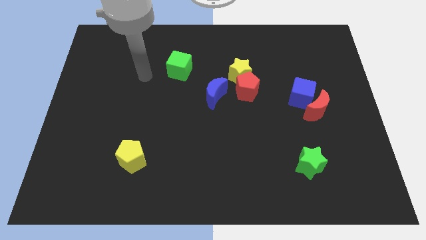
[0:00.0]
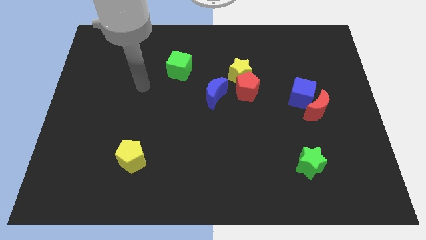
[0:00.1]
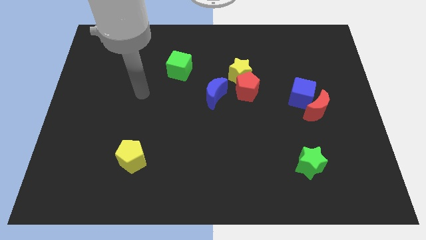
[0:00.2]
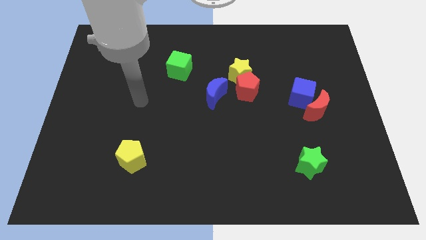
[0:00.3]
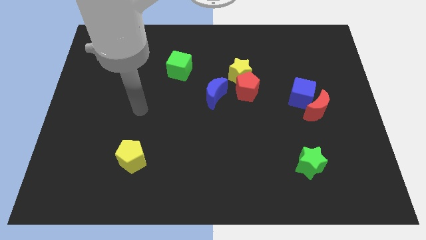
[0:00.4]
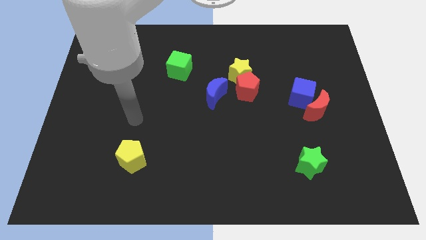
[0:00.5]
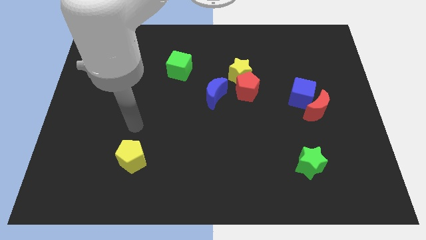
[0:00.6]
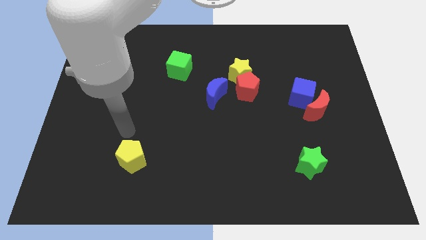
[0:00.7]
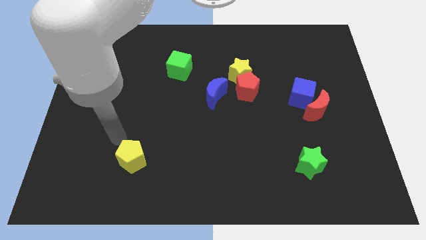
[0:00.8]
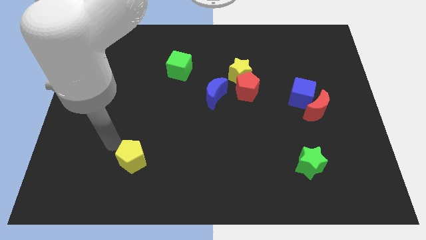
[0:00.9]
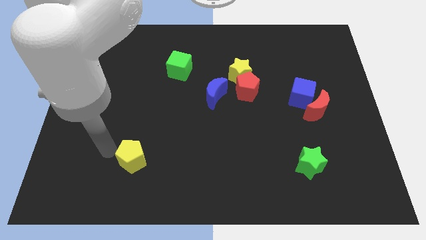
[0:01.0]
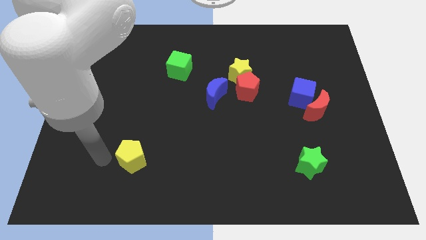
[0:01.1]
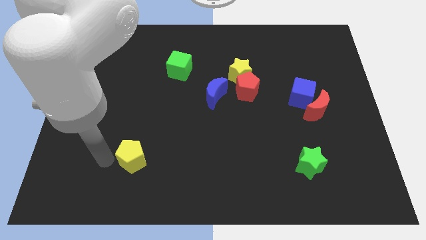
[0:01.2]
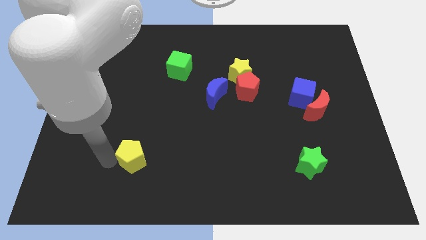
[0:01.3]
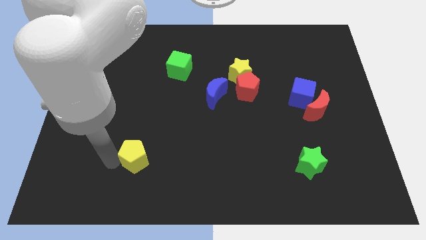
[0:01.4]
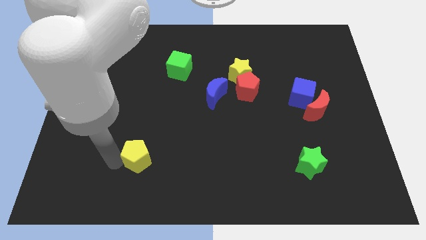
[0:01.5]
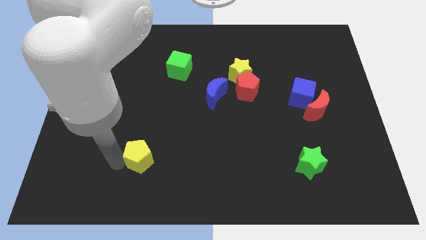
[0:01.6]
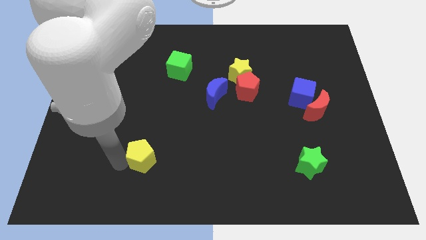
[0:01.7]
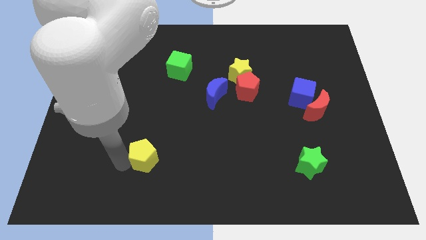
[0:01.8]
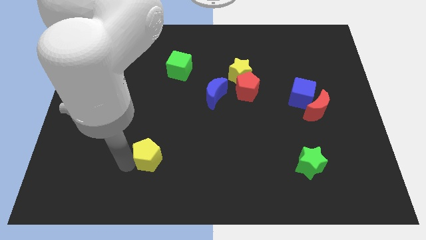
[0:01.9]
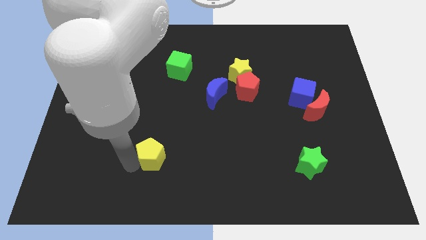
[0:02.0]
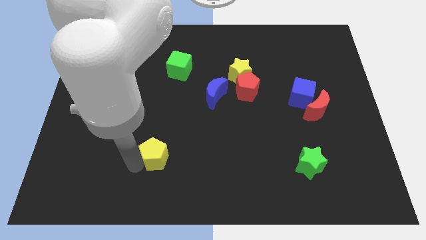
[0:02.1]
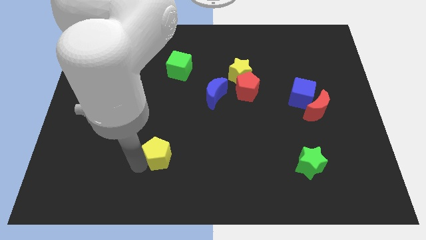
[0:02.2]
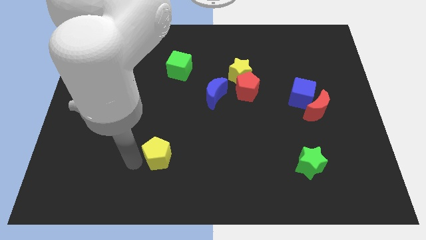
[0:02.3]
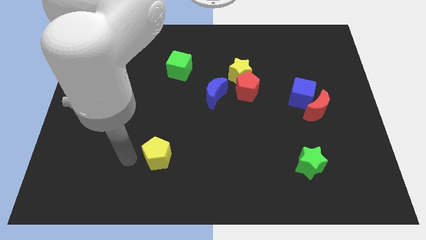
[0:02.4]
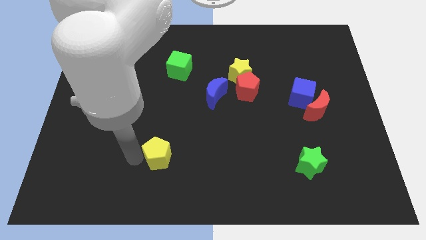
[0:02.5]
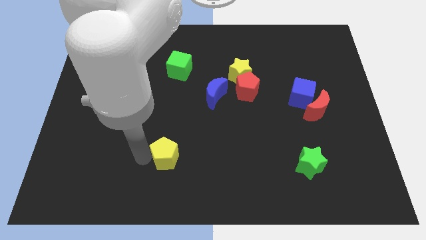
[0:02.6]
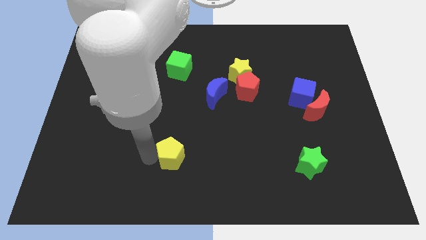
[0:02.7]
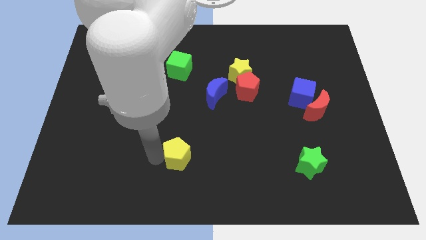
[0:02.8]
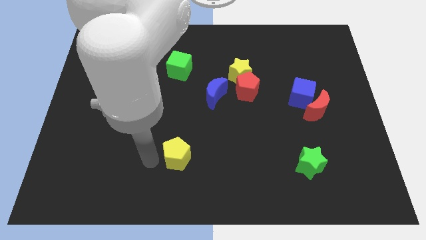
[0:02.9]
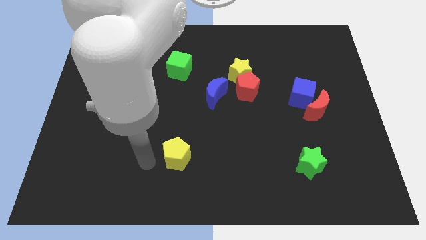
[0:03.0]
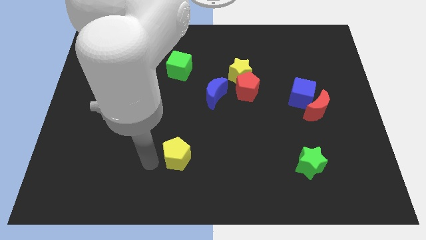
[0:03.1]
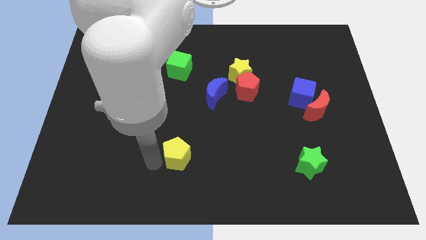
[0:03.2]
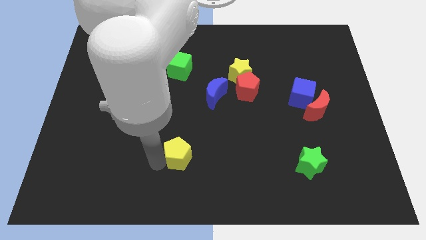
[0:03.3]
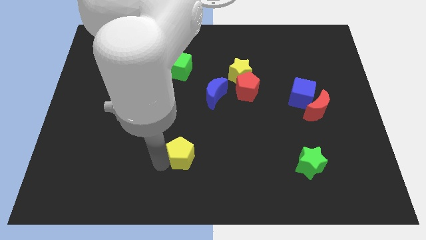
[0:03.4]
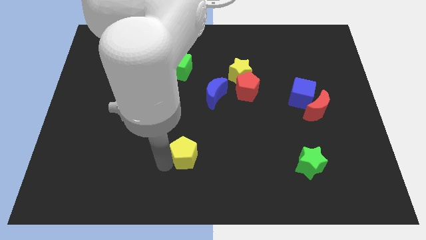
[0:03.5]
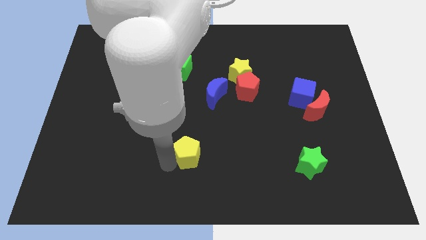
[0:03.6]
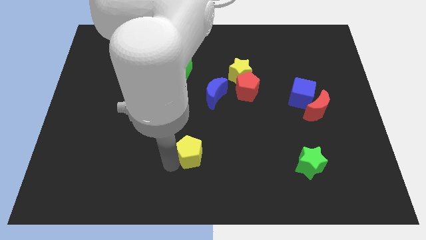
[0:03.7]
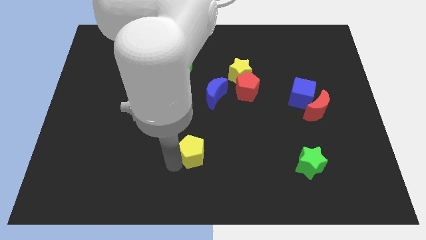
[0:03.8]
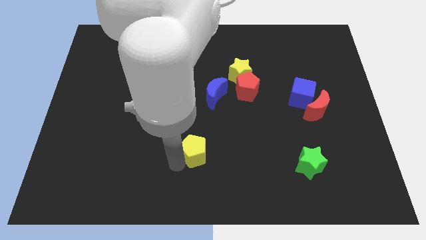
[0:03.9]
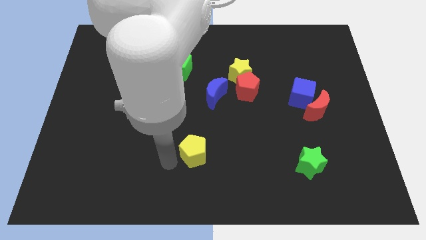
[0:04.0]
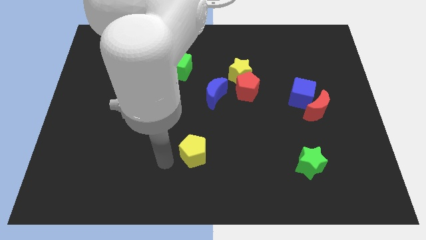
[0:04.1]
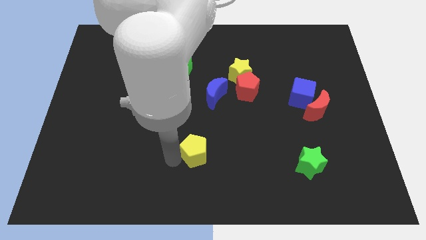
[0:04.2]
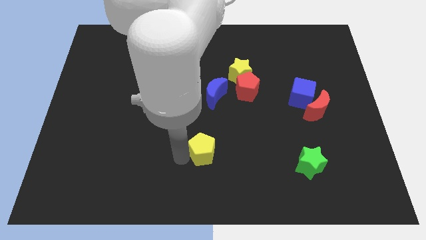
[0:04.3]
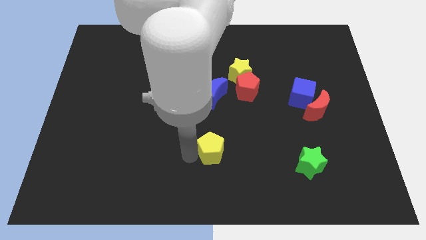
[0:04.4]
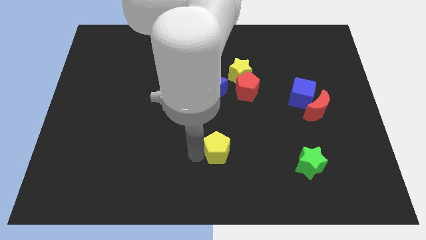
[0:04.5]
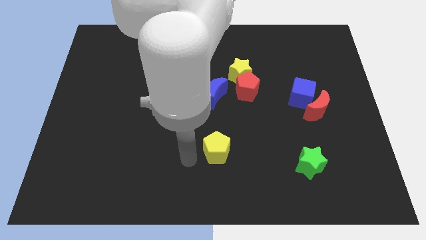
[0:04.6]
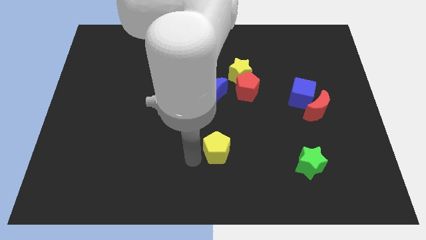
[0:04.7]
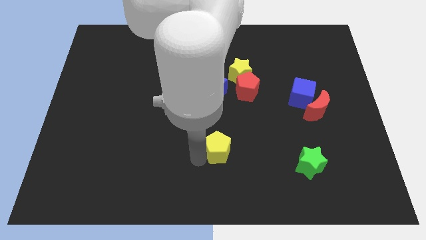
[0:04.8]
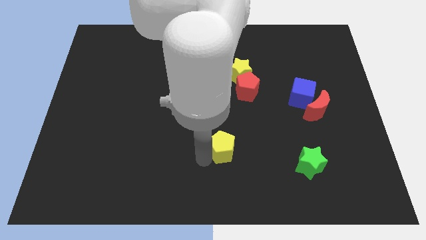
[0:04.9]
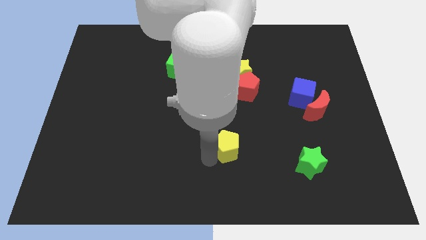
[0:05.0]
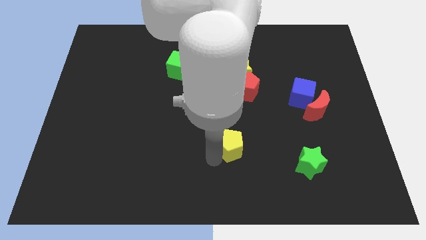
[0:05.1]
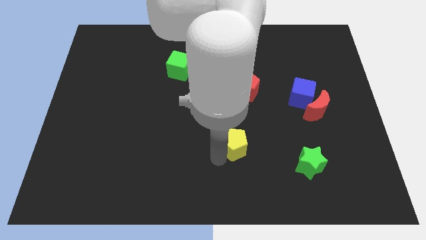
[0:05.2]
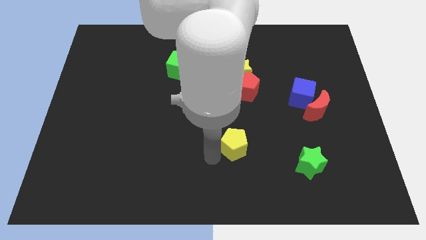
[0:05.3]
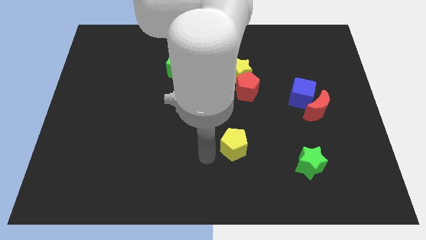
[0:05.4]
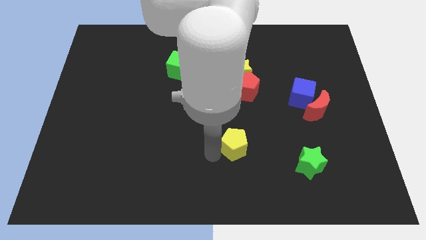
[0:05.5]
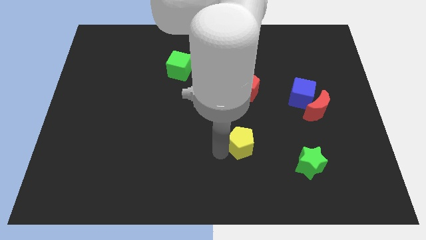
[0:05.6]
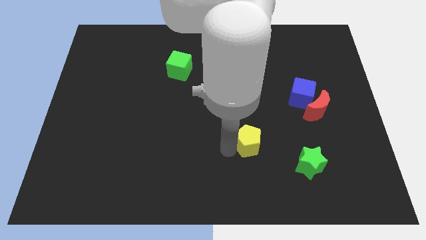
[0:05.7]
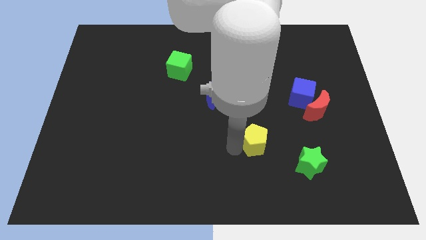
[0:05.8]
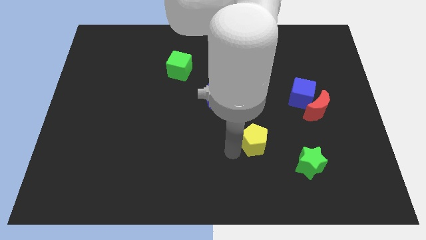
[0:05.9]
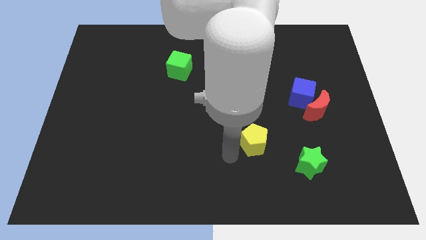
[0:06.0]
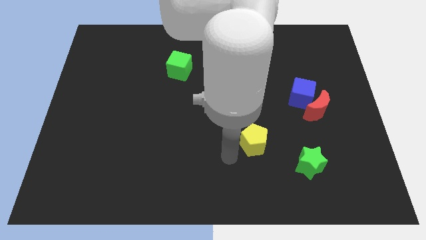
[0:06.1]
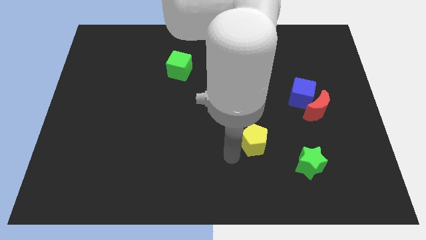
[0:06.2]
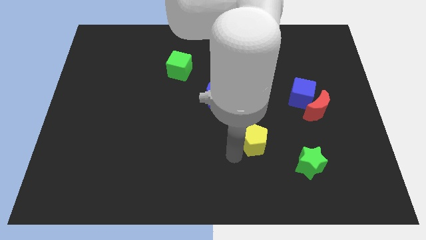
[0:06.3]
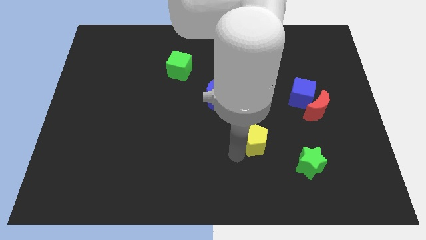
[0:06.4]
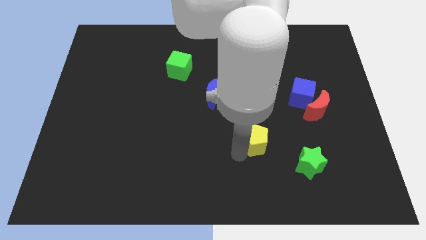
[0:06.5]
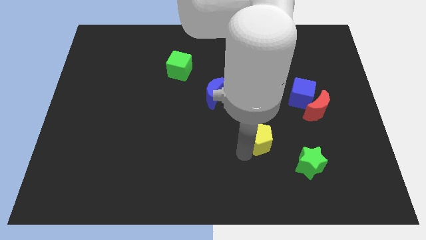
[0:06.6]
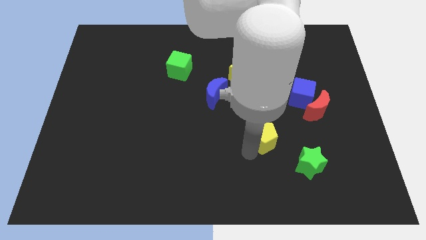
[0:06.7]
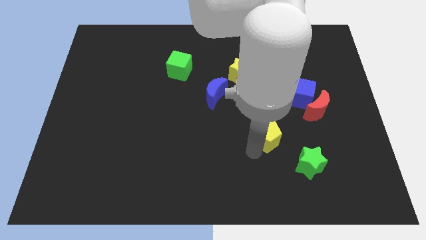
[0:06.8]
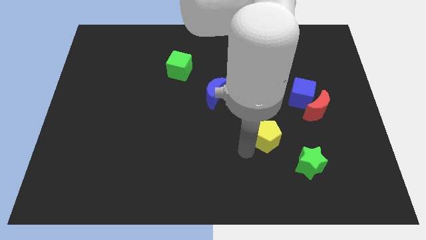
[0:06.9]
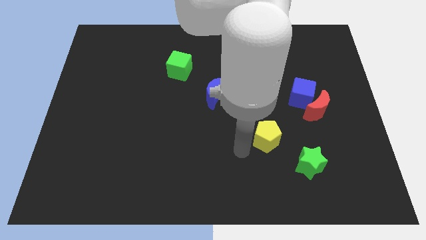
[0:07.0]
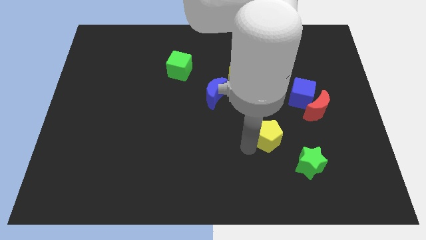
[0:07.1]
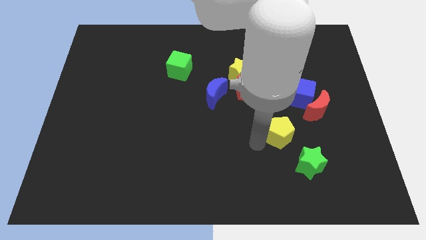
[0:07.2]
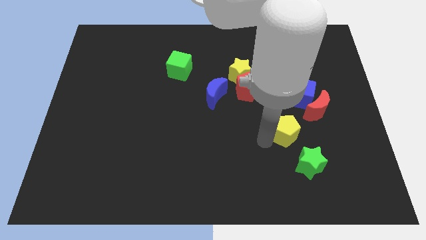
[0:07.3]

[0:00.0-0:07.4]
put the yellow pentagon to the top of the green star
